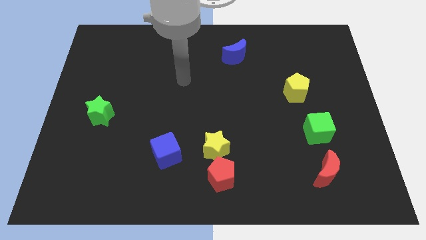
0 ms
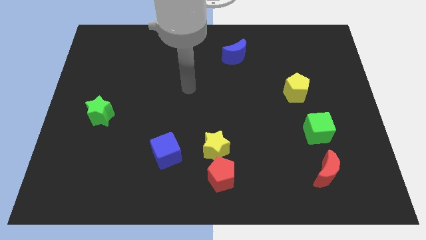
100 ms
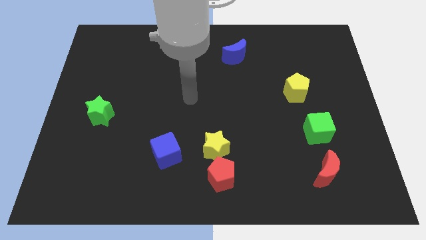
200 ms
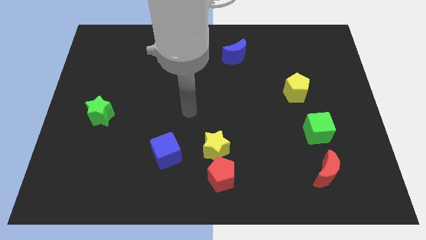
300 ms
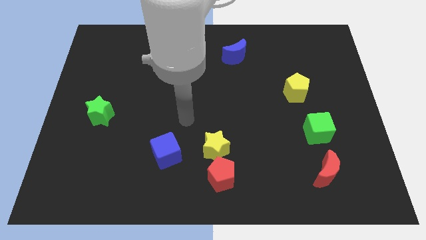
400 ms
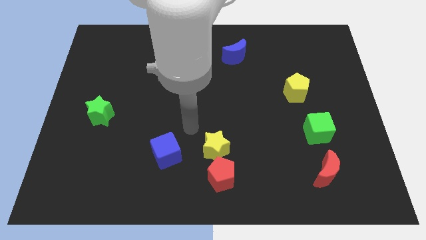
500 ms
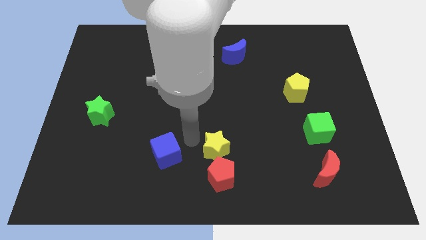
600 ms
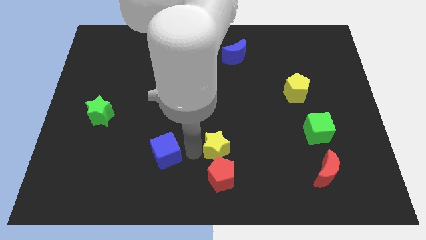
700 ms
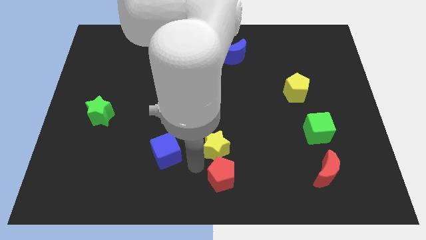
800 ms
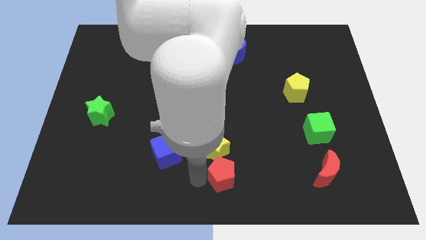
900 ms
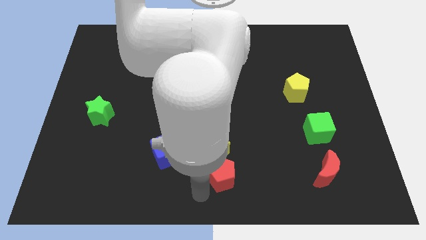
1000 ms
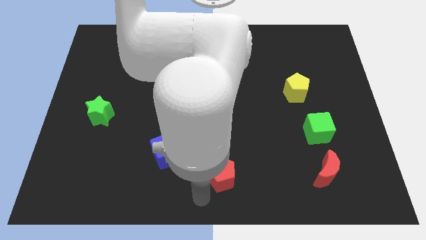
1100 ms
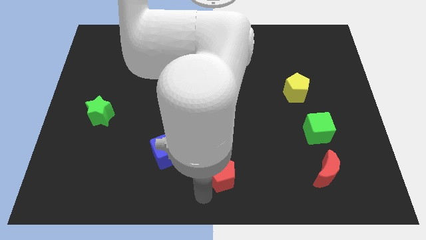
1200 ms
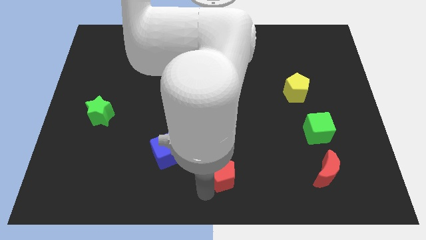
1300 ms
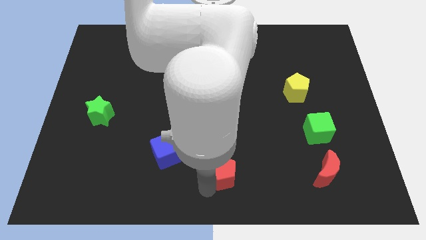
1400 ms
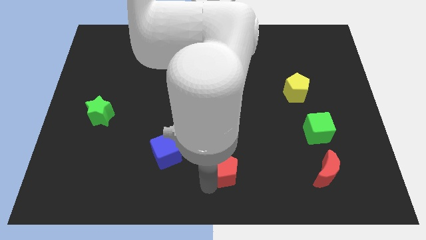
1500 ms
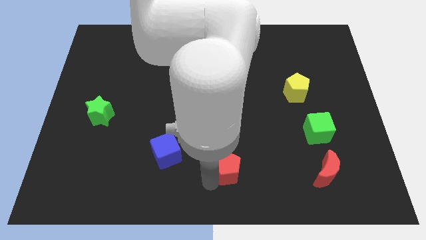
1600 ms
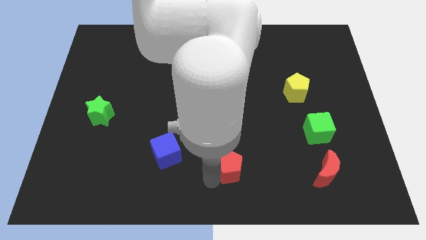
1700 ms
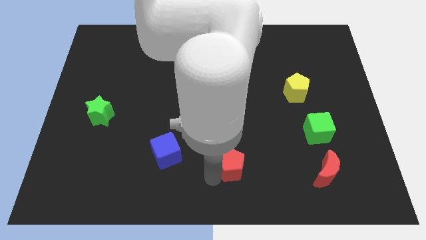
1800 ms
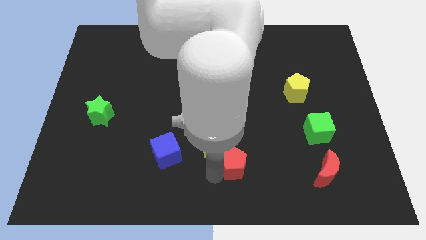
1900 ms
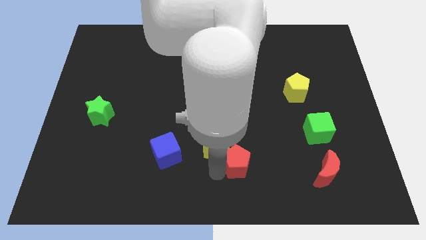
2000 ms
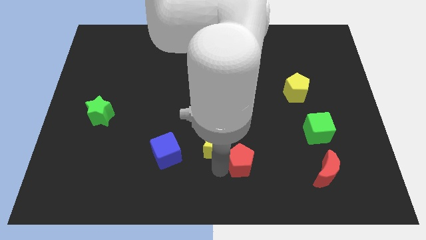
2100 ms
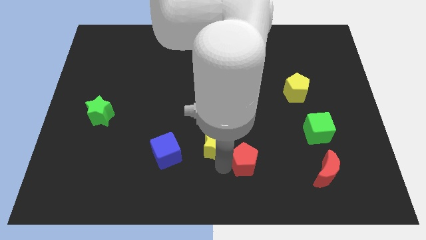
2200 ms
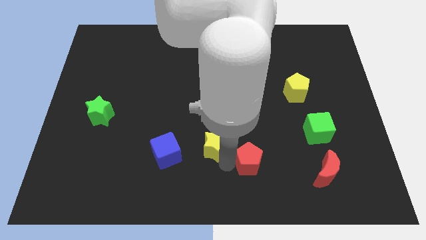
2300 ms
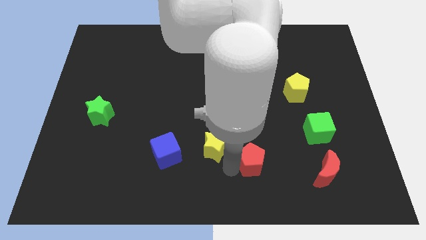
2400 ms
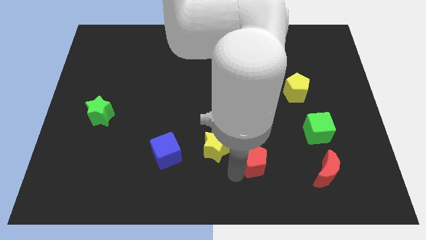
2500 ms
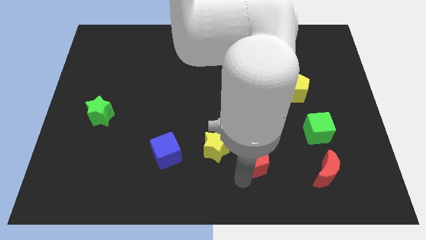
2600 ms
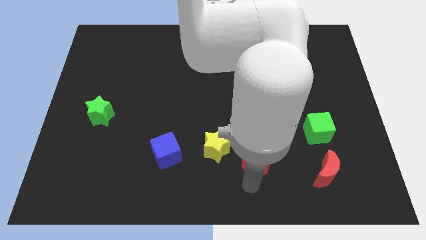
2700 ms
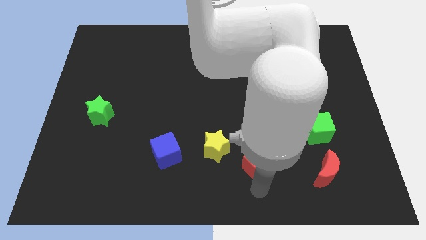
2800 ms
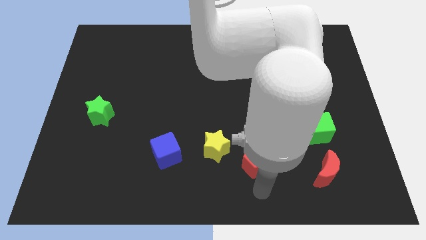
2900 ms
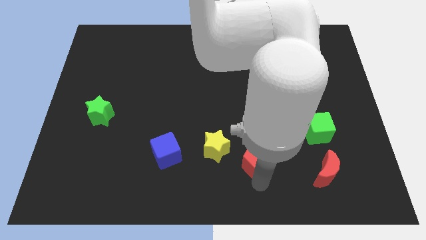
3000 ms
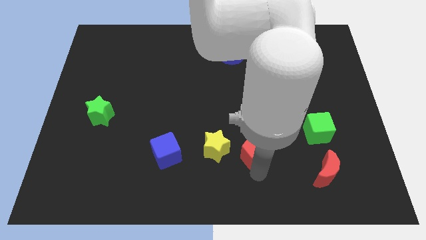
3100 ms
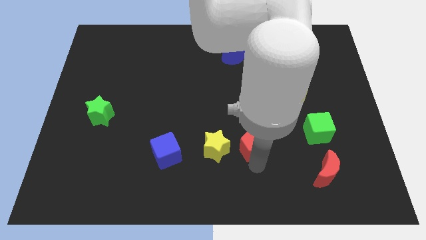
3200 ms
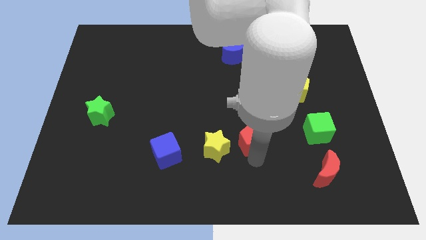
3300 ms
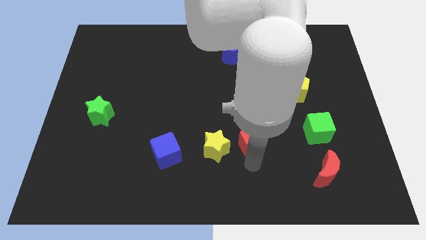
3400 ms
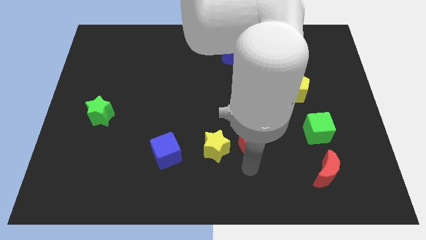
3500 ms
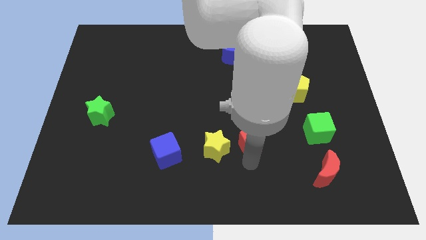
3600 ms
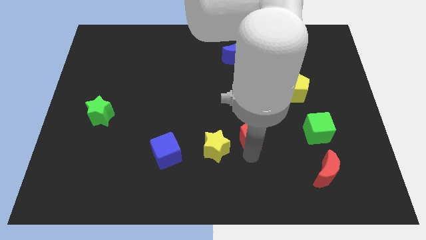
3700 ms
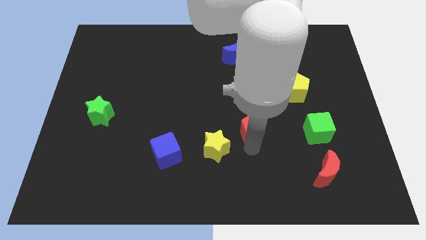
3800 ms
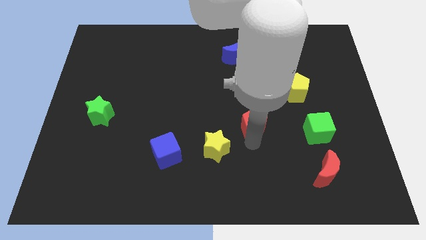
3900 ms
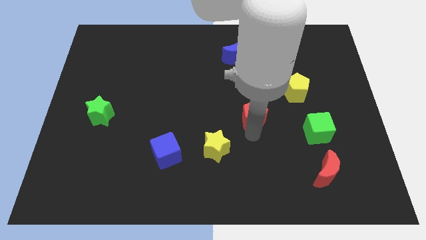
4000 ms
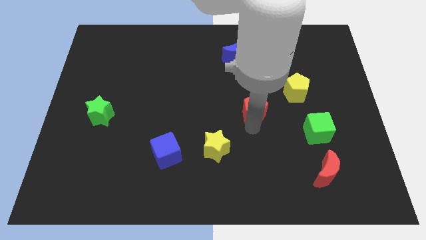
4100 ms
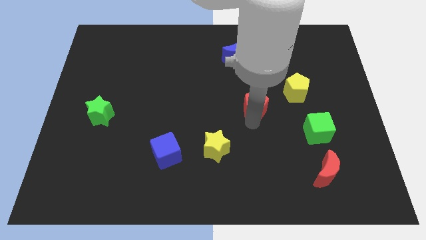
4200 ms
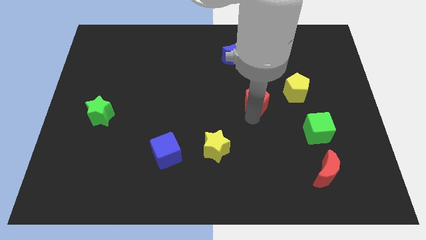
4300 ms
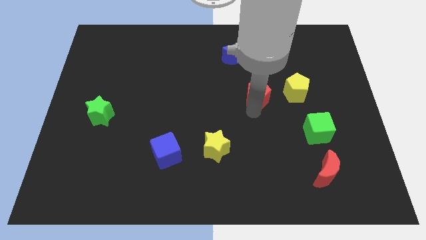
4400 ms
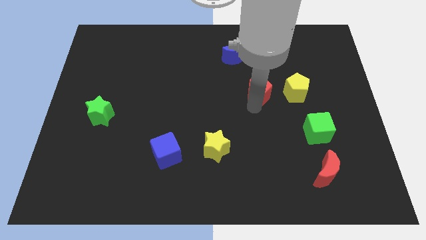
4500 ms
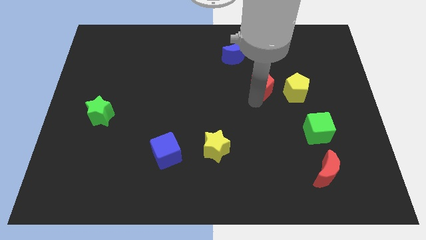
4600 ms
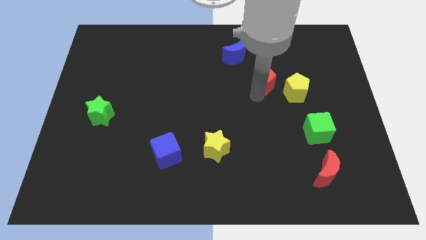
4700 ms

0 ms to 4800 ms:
move the red pentagon to the top left side of the yellow pentagon

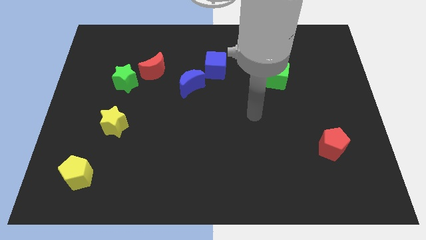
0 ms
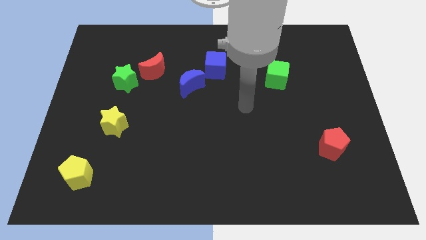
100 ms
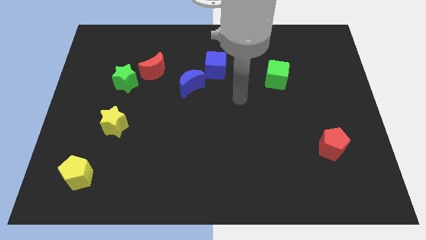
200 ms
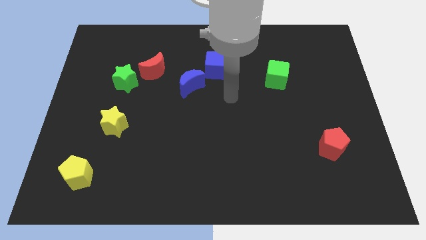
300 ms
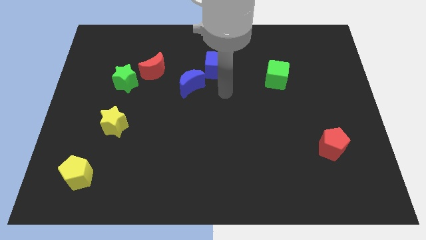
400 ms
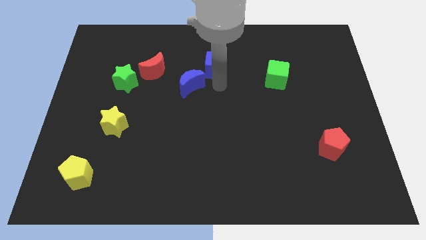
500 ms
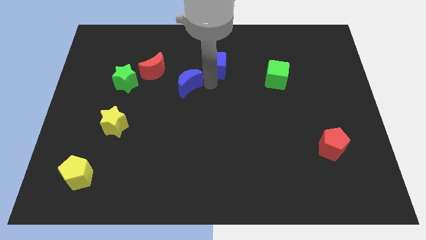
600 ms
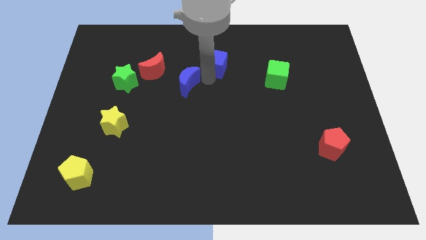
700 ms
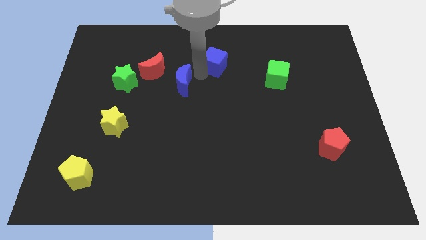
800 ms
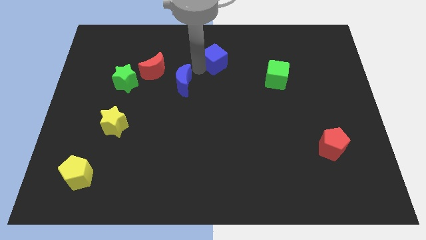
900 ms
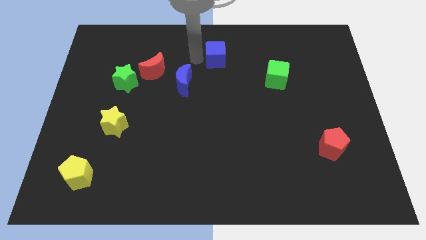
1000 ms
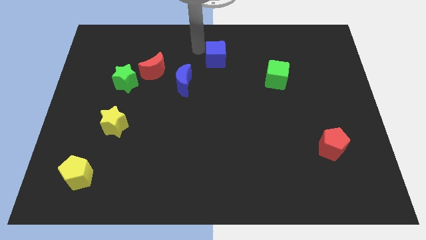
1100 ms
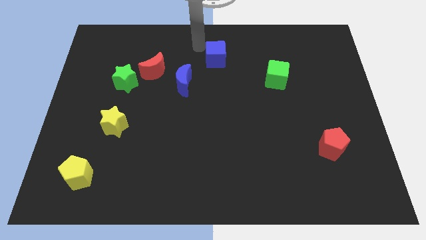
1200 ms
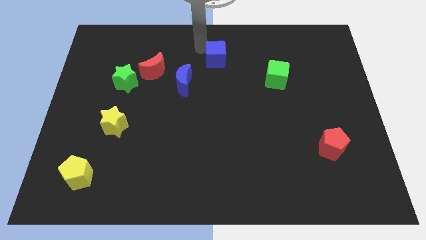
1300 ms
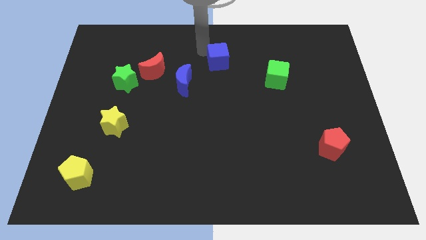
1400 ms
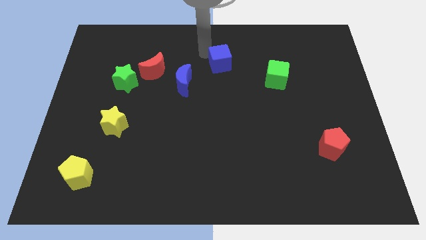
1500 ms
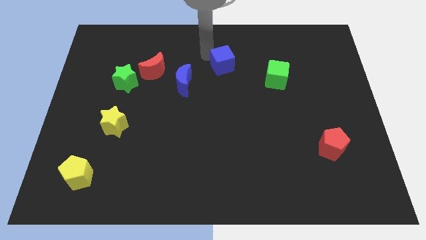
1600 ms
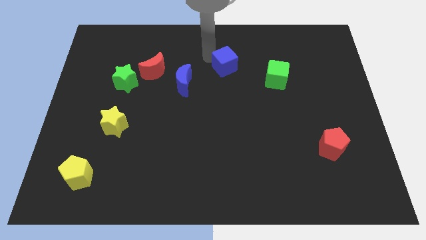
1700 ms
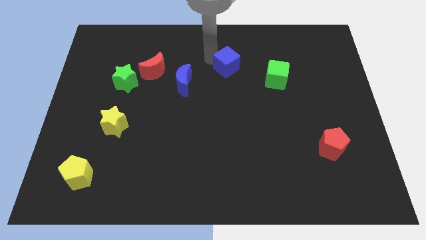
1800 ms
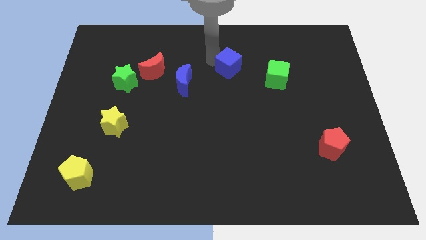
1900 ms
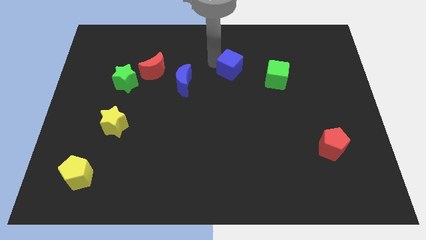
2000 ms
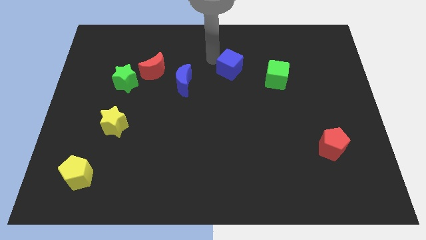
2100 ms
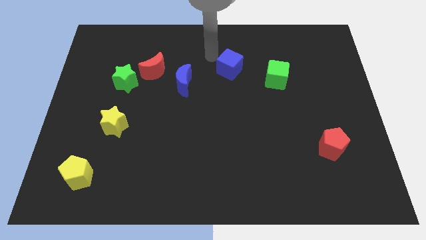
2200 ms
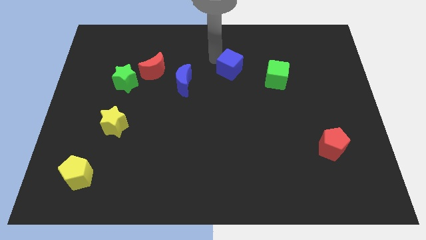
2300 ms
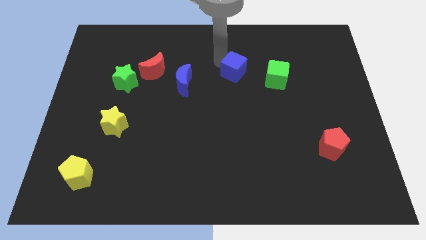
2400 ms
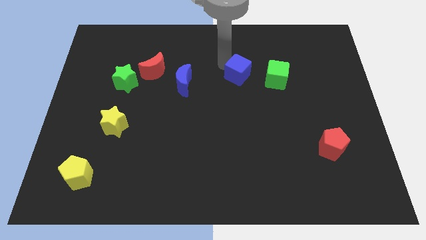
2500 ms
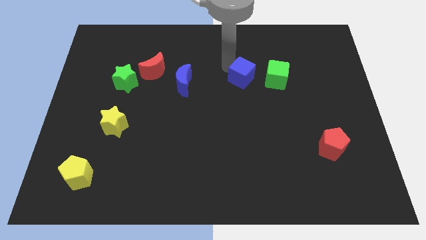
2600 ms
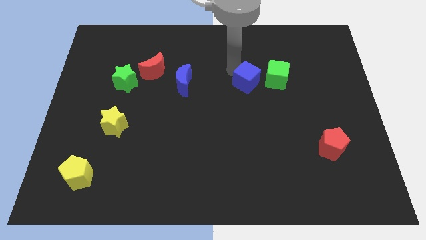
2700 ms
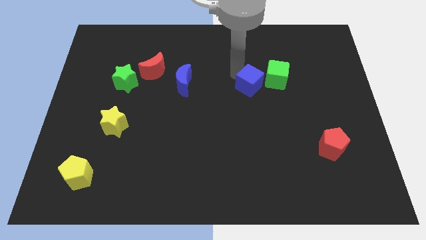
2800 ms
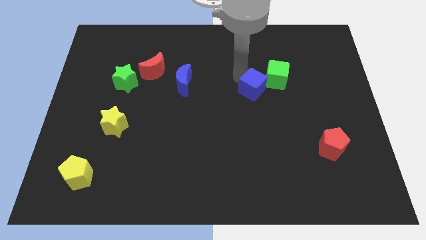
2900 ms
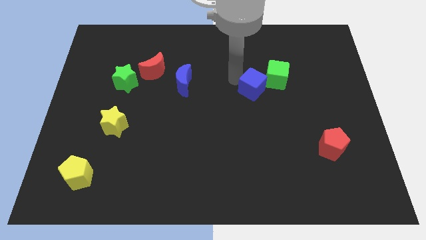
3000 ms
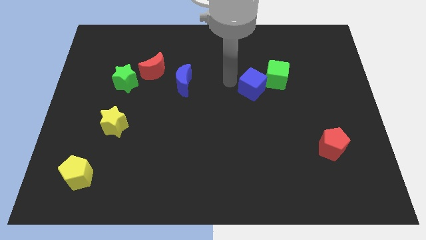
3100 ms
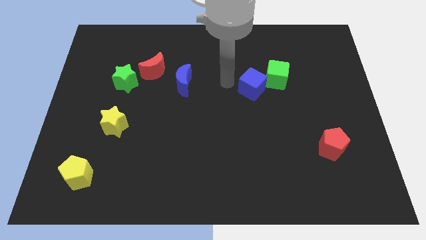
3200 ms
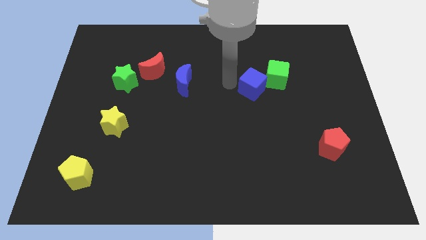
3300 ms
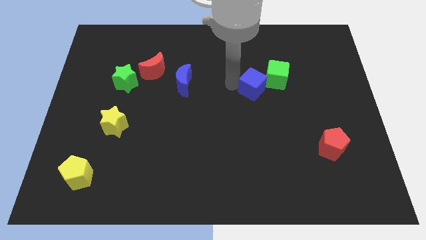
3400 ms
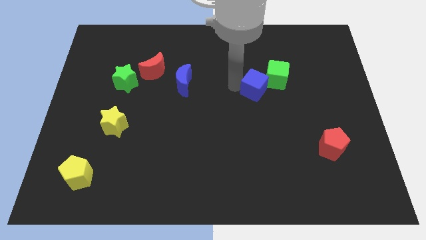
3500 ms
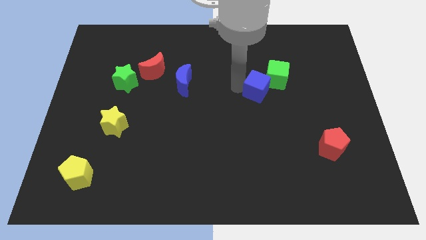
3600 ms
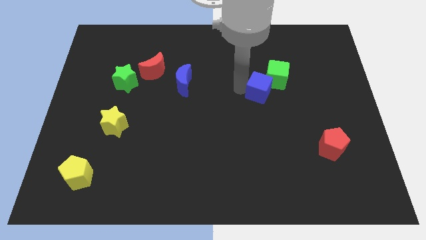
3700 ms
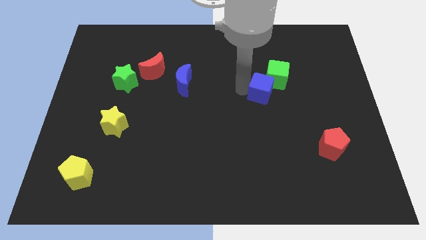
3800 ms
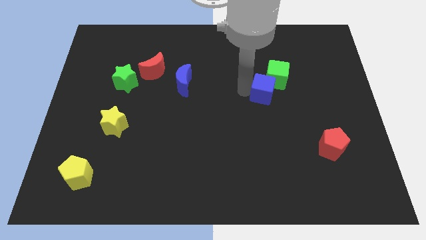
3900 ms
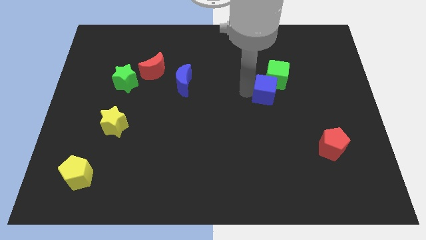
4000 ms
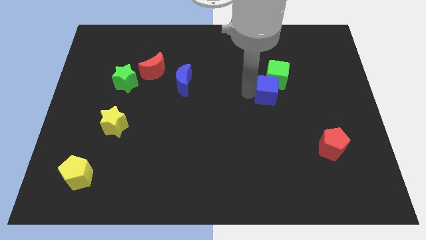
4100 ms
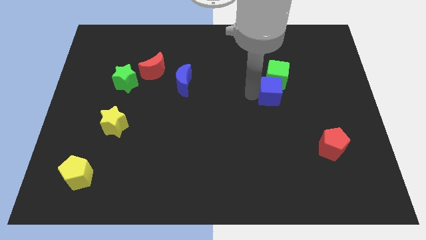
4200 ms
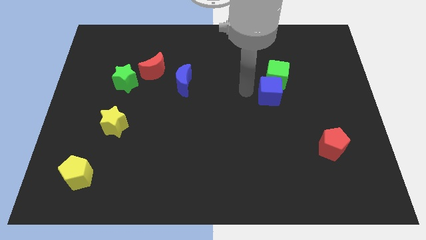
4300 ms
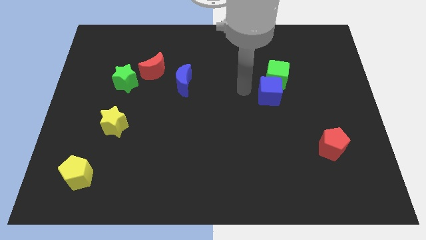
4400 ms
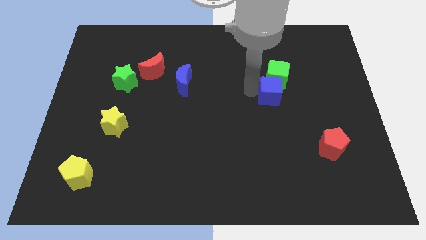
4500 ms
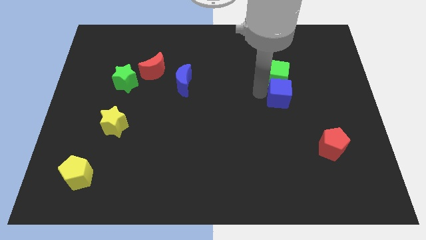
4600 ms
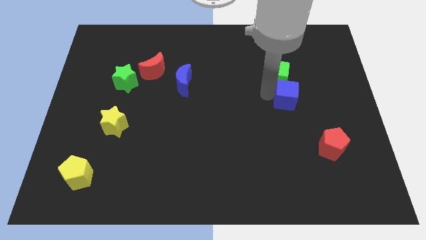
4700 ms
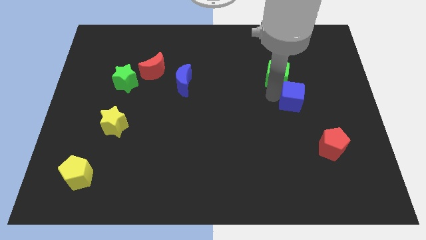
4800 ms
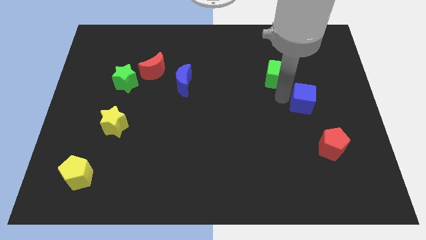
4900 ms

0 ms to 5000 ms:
push the blue cube to the top side of the red pentagon
